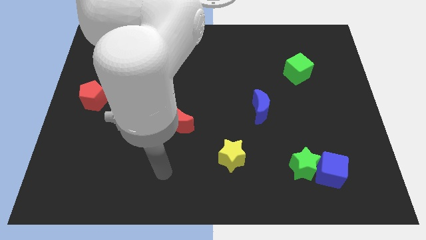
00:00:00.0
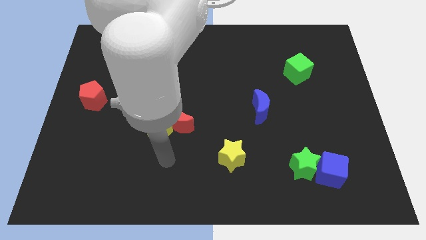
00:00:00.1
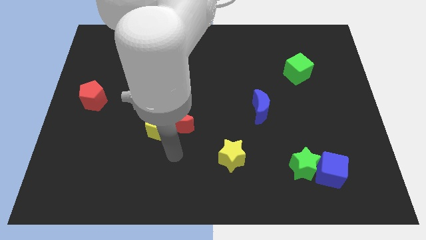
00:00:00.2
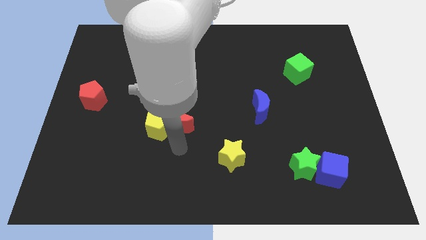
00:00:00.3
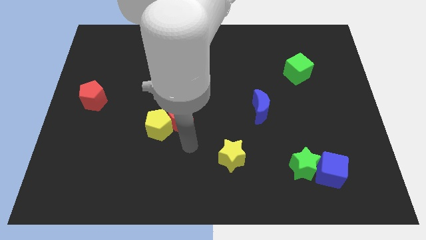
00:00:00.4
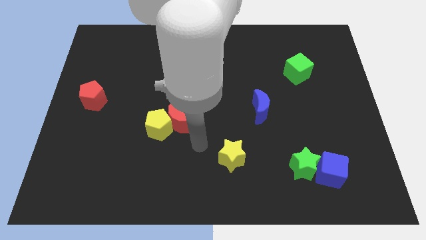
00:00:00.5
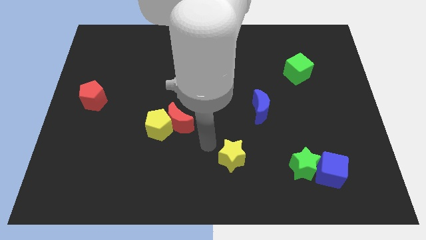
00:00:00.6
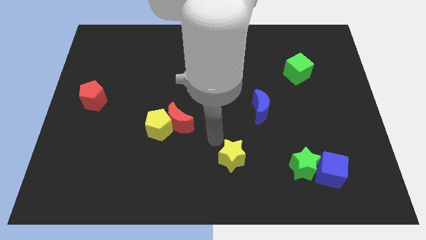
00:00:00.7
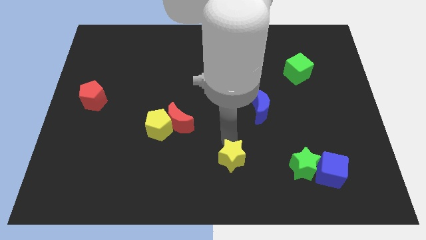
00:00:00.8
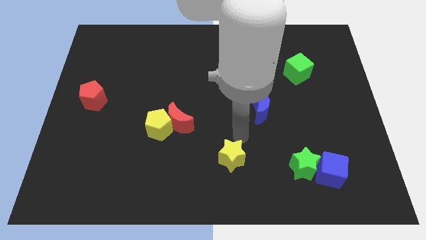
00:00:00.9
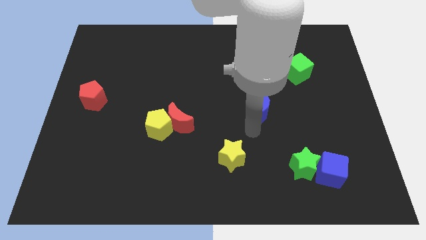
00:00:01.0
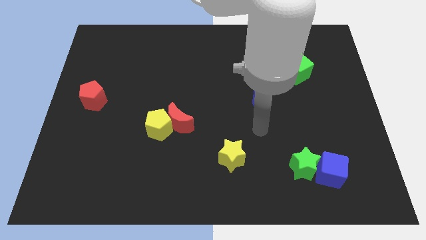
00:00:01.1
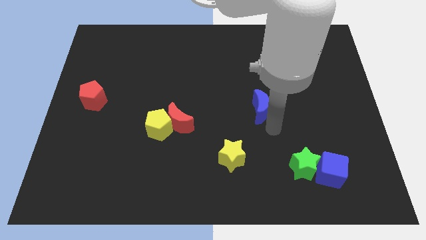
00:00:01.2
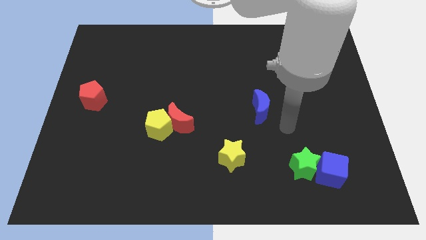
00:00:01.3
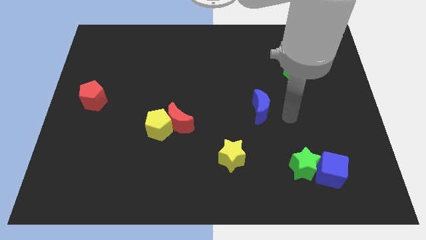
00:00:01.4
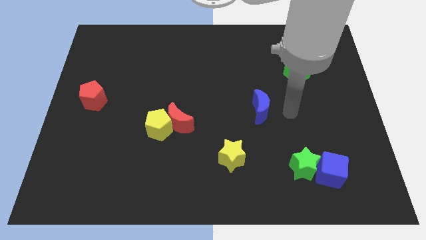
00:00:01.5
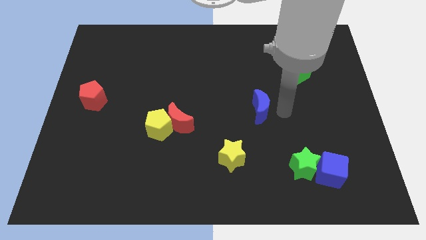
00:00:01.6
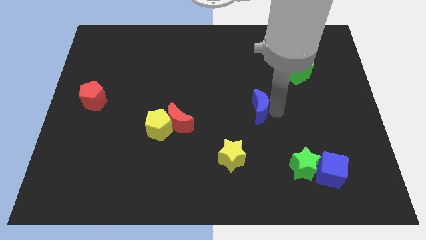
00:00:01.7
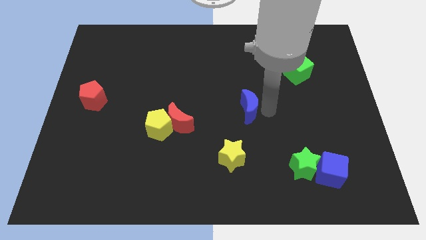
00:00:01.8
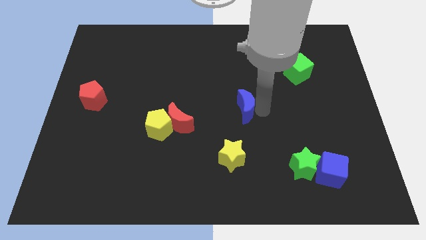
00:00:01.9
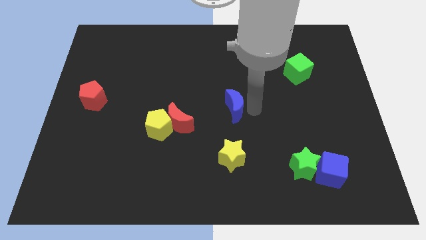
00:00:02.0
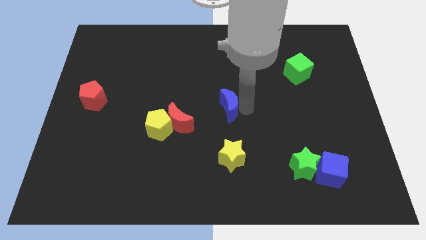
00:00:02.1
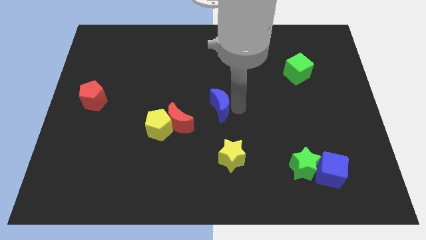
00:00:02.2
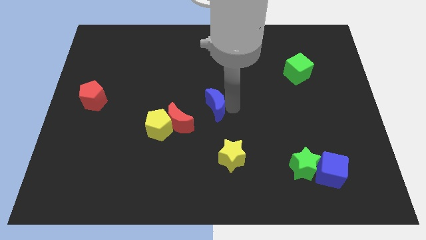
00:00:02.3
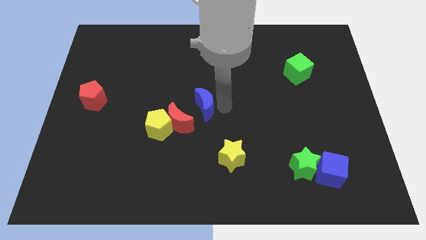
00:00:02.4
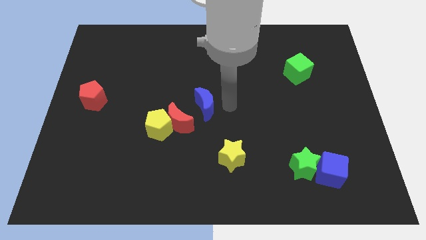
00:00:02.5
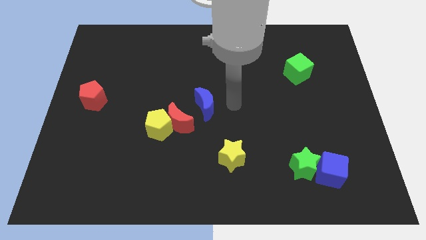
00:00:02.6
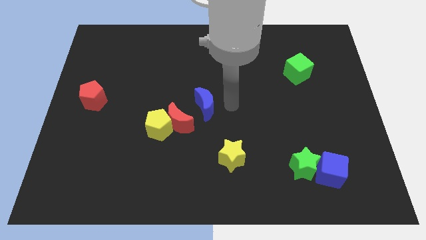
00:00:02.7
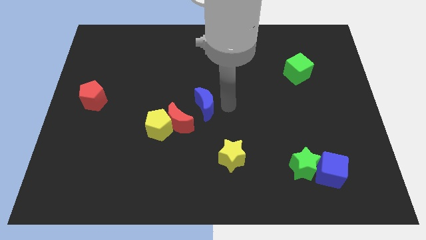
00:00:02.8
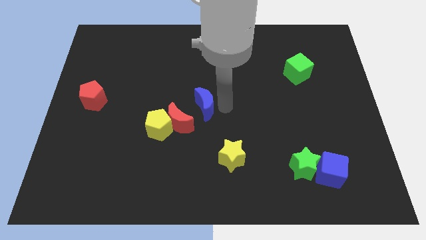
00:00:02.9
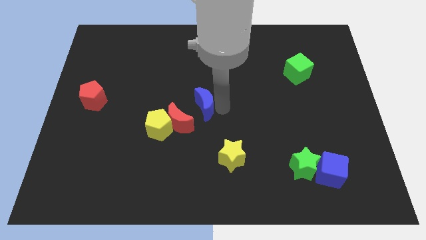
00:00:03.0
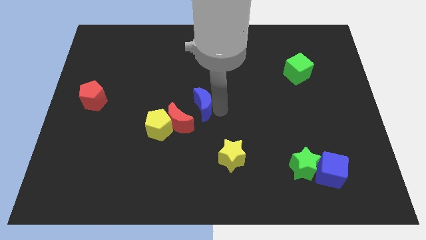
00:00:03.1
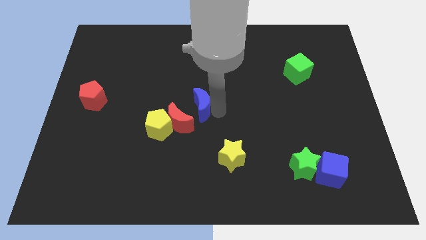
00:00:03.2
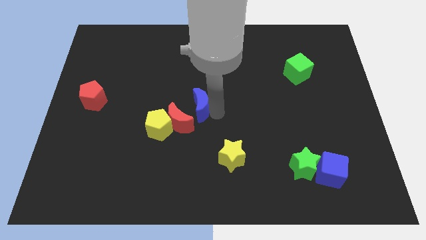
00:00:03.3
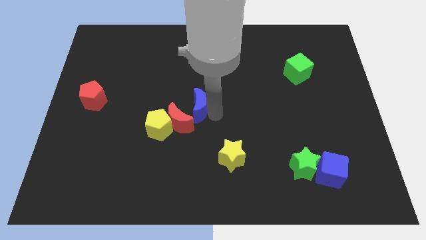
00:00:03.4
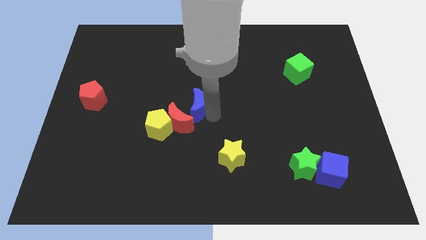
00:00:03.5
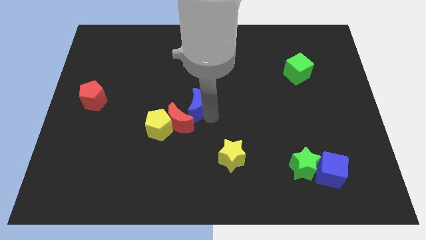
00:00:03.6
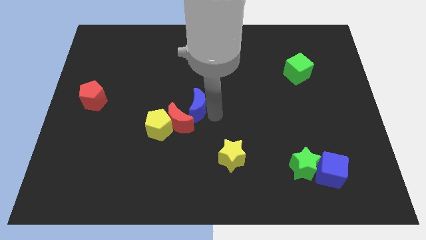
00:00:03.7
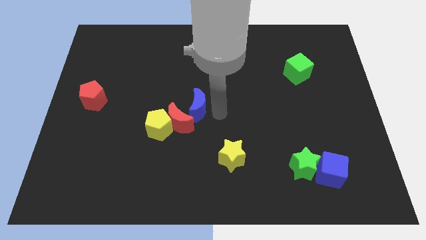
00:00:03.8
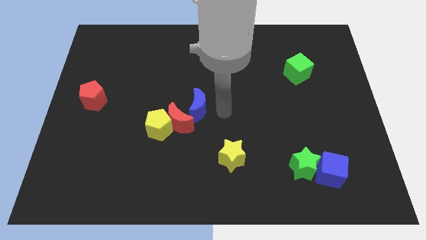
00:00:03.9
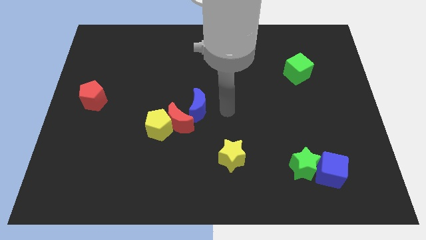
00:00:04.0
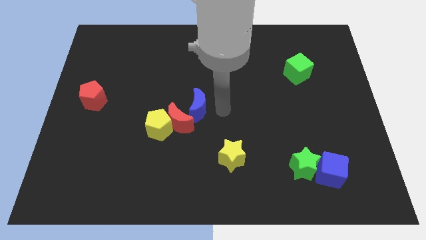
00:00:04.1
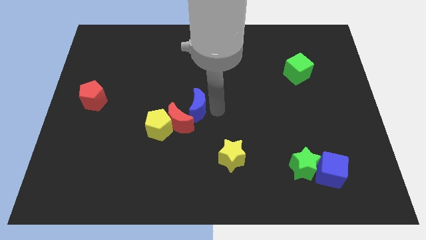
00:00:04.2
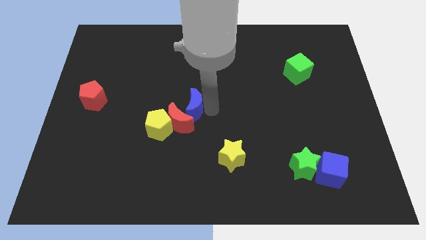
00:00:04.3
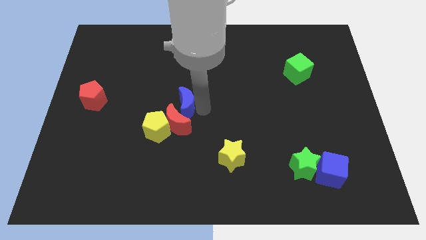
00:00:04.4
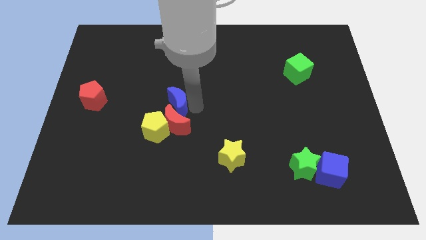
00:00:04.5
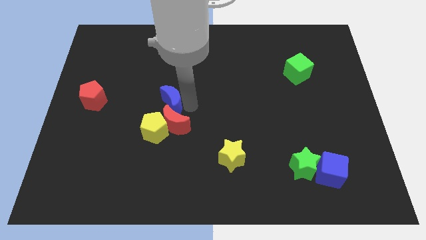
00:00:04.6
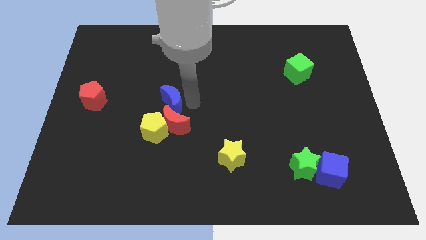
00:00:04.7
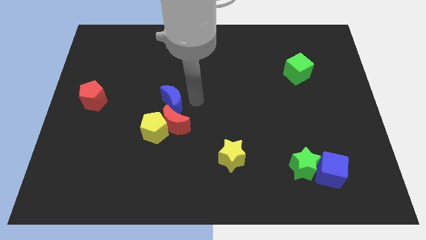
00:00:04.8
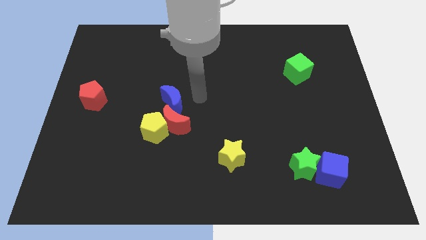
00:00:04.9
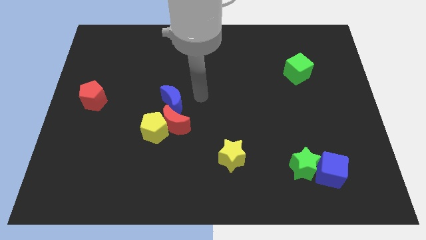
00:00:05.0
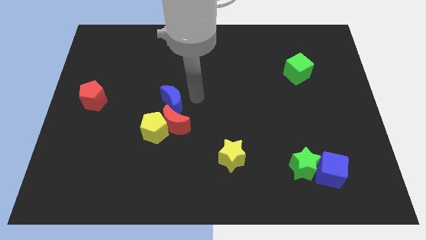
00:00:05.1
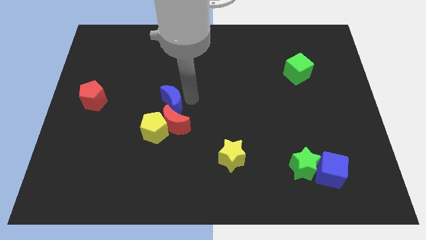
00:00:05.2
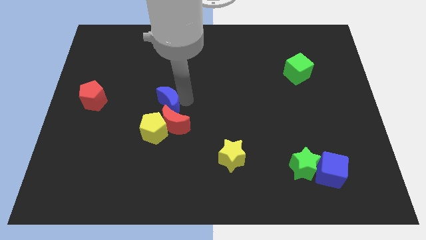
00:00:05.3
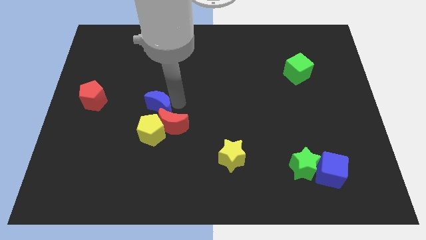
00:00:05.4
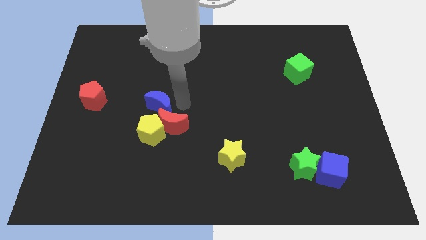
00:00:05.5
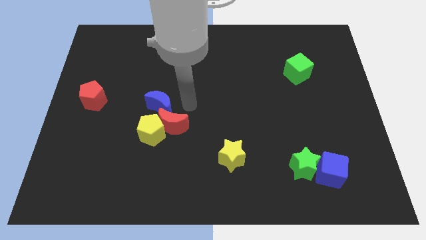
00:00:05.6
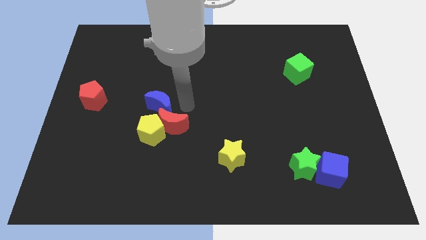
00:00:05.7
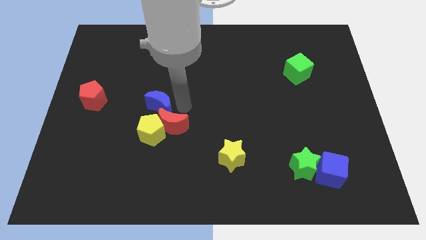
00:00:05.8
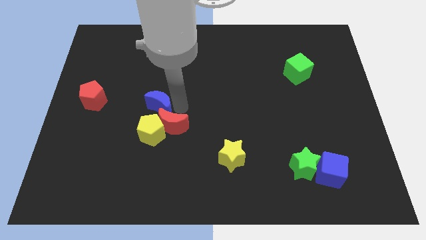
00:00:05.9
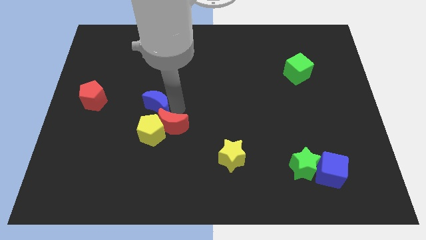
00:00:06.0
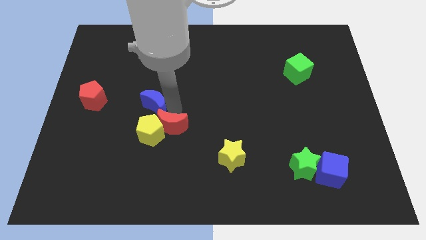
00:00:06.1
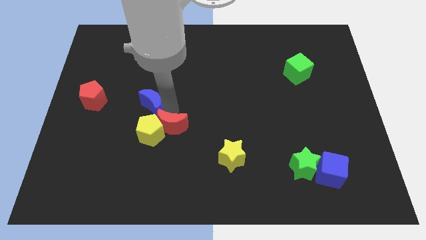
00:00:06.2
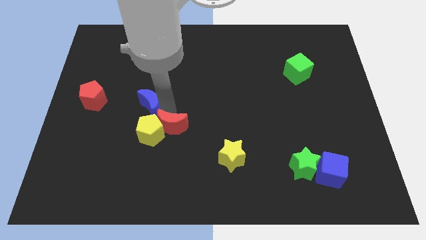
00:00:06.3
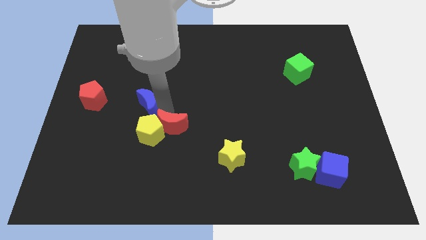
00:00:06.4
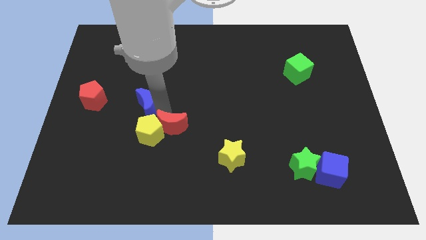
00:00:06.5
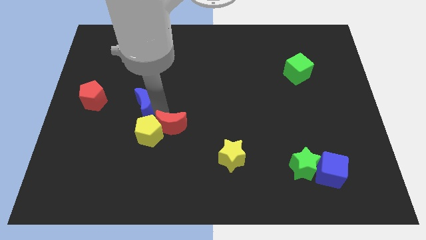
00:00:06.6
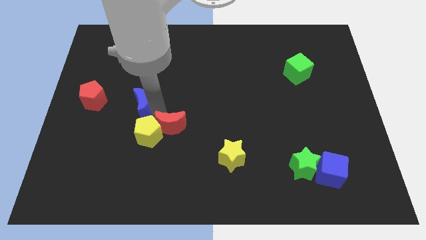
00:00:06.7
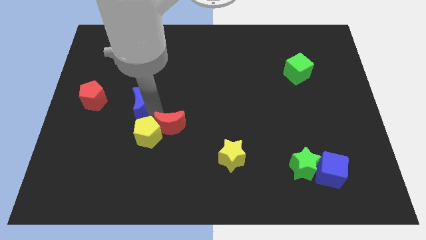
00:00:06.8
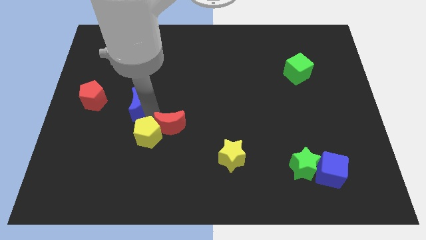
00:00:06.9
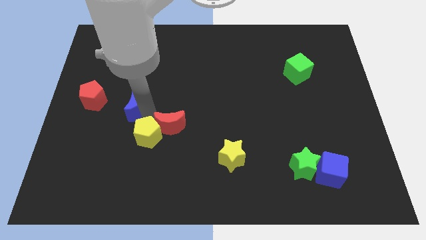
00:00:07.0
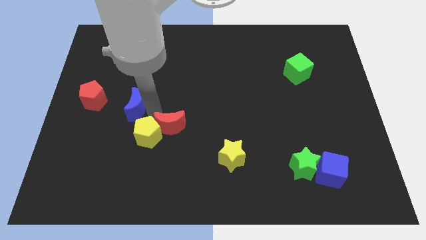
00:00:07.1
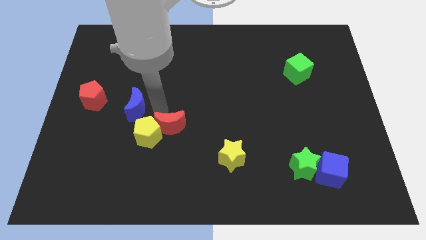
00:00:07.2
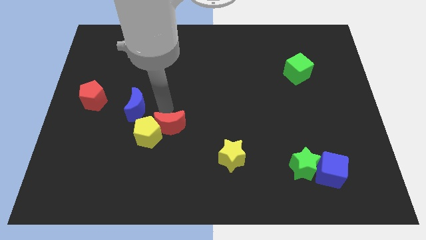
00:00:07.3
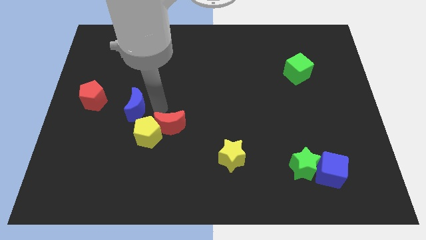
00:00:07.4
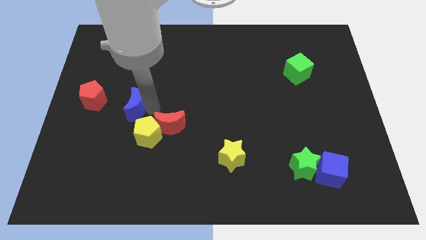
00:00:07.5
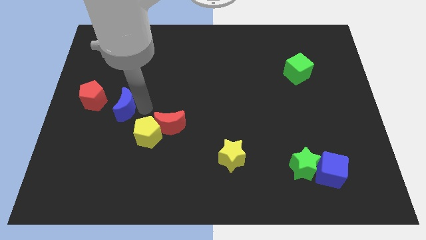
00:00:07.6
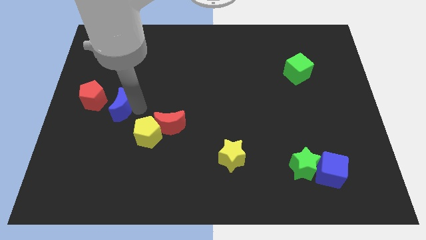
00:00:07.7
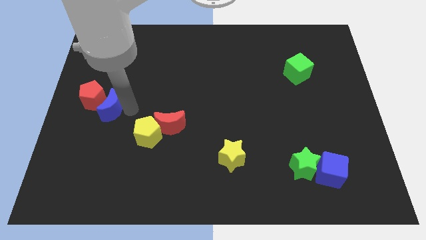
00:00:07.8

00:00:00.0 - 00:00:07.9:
put the blue moon next to the red pentagon
